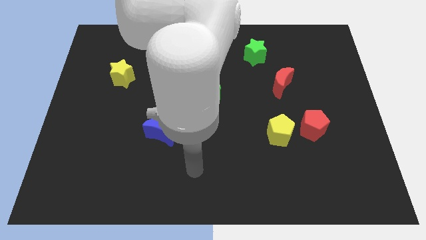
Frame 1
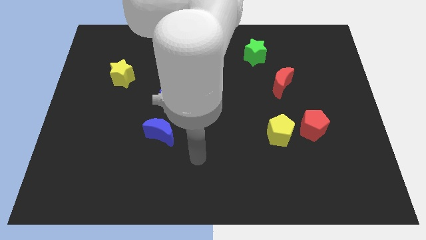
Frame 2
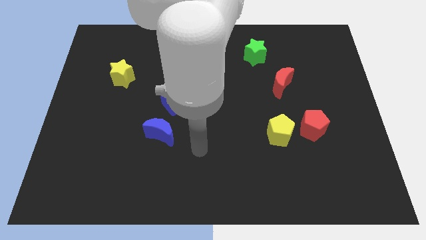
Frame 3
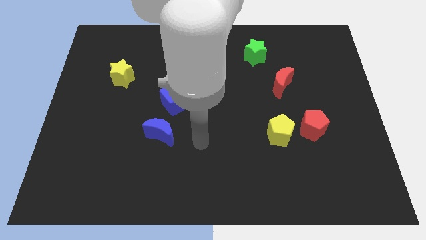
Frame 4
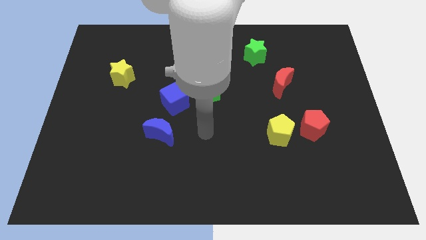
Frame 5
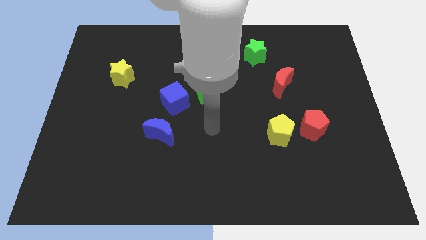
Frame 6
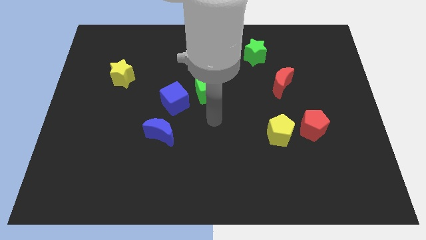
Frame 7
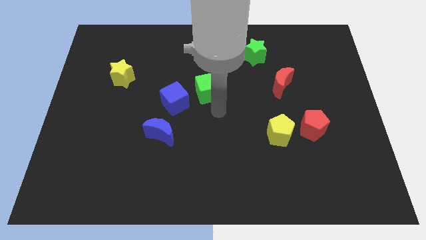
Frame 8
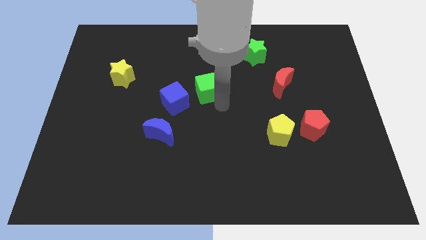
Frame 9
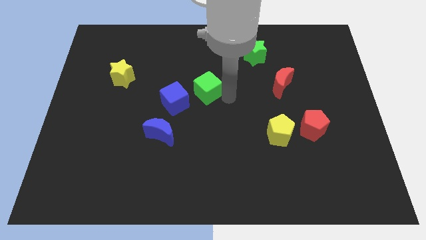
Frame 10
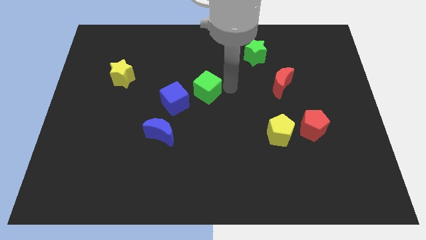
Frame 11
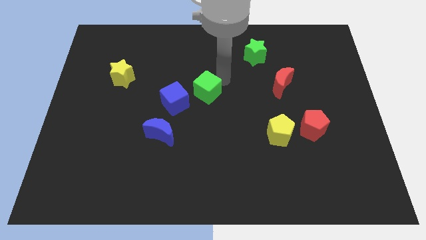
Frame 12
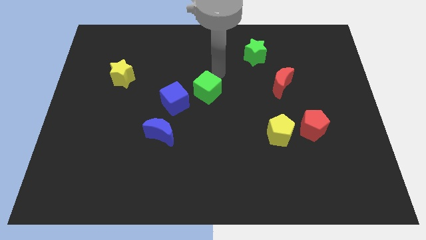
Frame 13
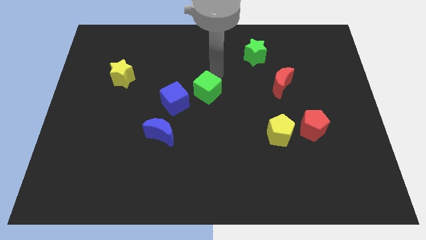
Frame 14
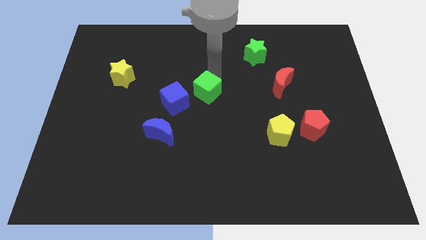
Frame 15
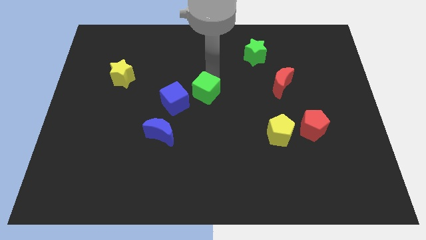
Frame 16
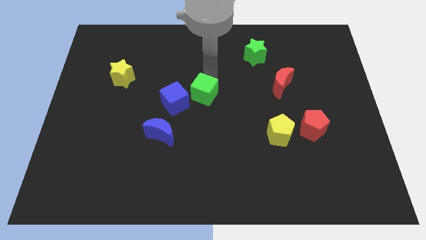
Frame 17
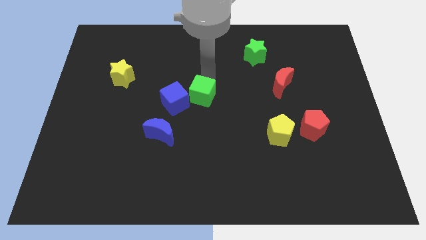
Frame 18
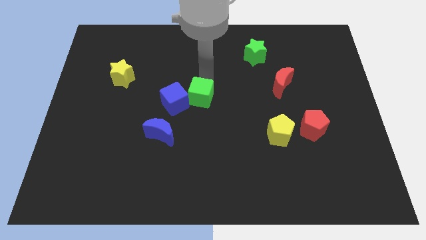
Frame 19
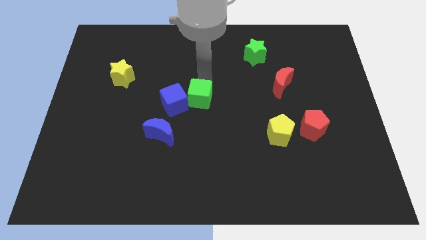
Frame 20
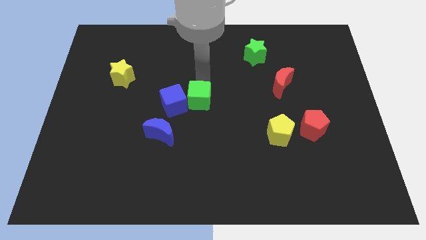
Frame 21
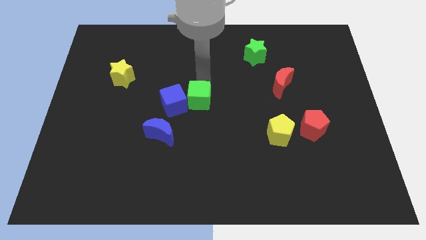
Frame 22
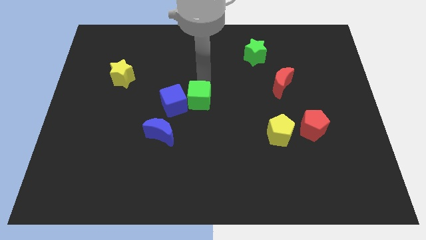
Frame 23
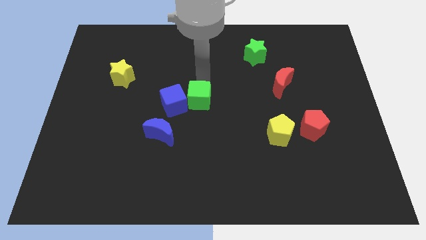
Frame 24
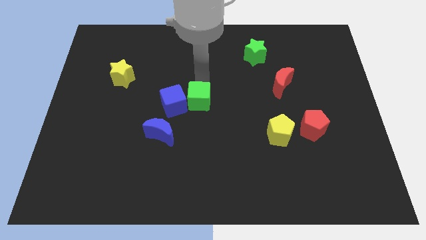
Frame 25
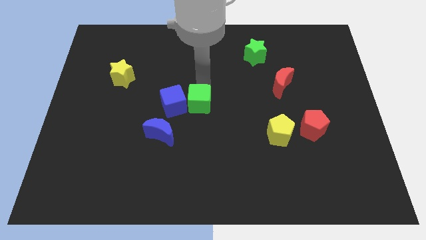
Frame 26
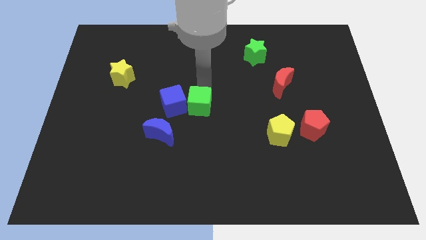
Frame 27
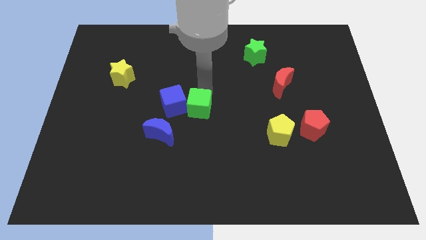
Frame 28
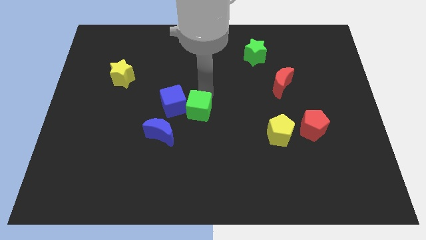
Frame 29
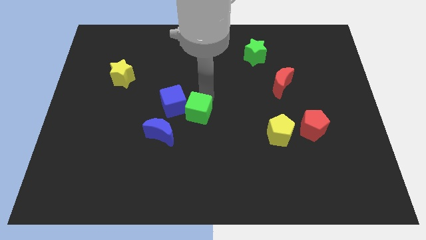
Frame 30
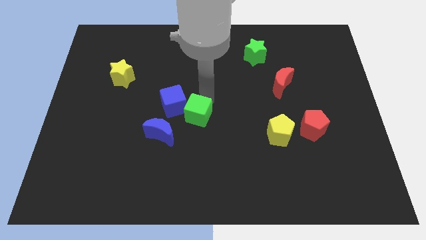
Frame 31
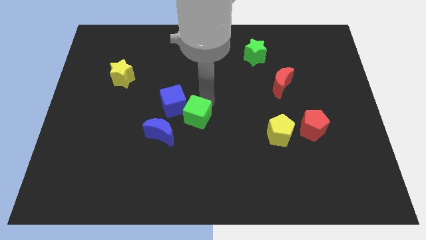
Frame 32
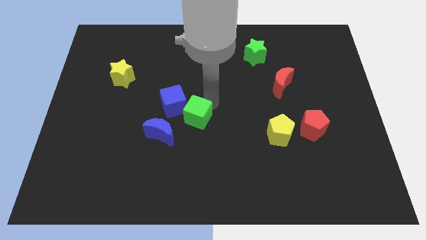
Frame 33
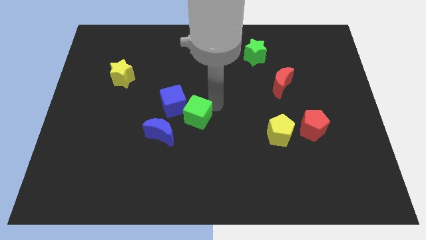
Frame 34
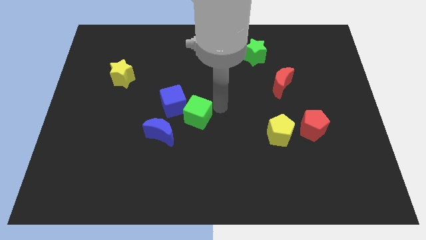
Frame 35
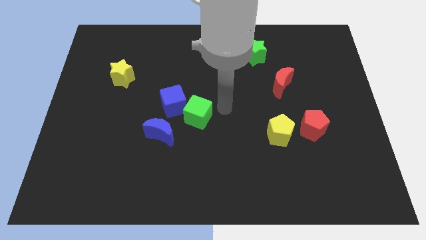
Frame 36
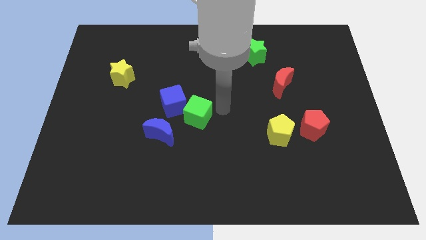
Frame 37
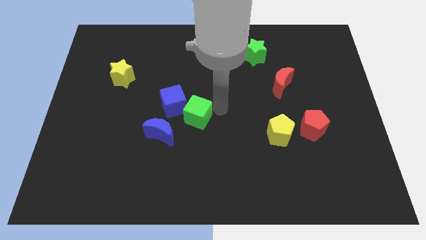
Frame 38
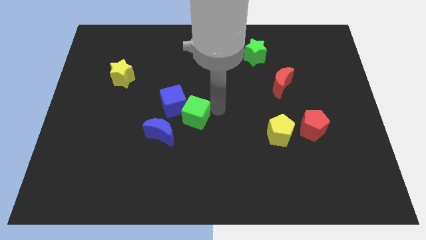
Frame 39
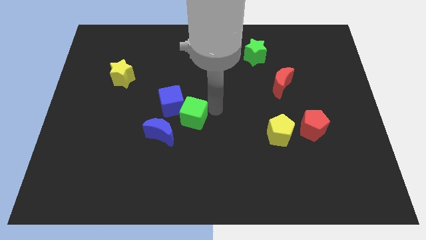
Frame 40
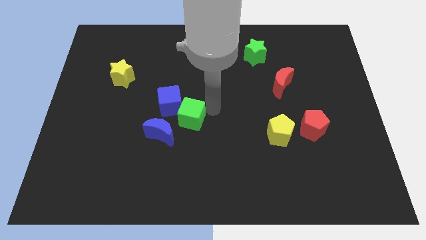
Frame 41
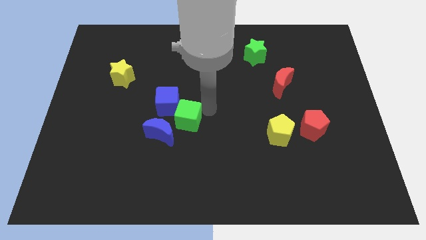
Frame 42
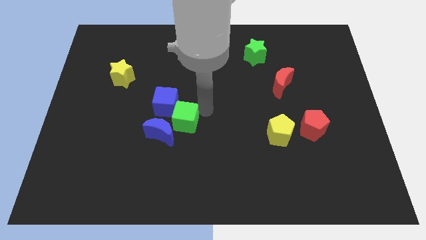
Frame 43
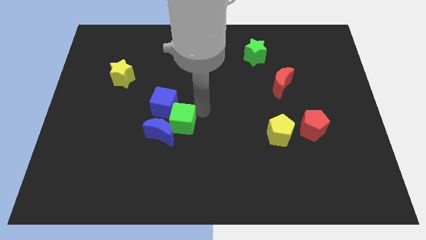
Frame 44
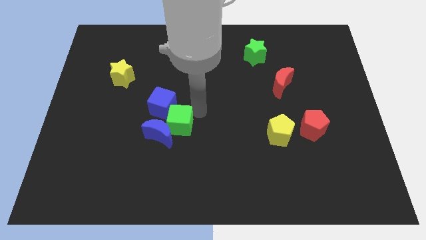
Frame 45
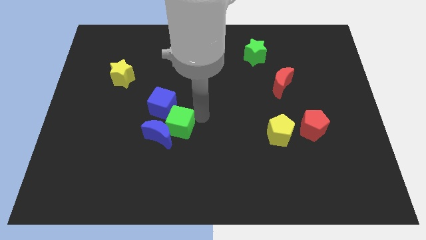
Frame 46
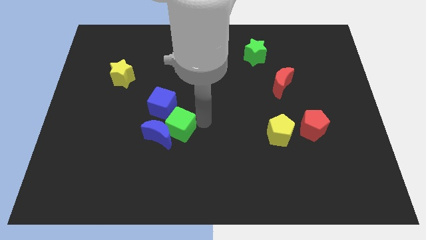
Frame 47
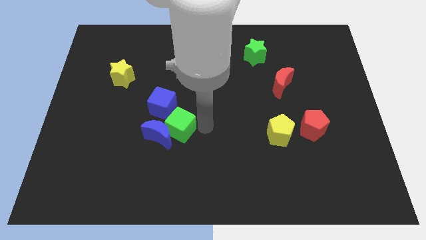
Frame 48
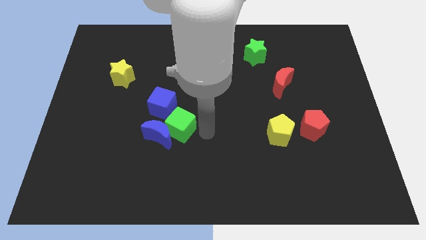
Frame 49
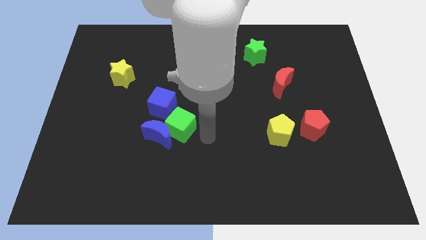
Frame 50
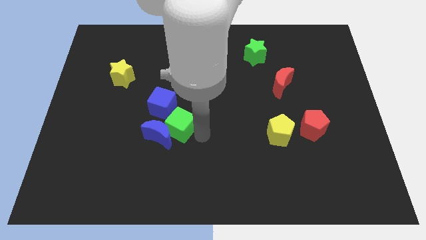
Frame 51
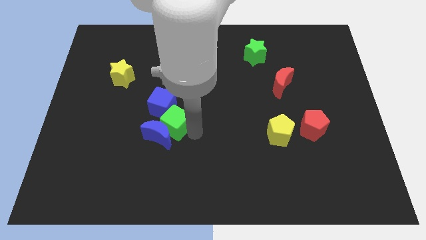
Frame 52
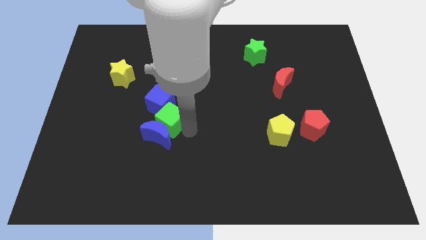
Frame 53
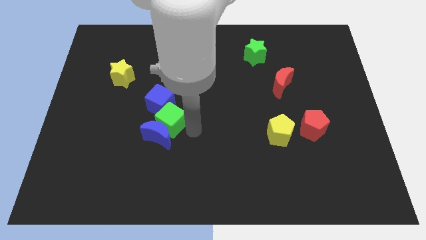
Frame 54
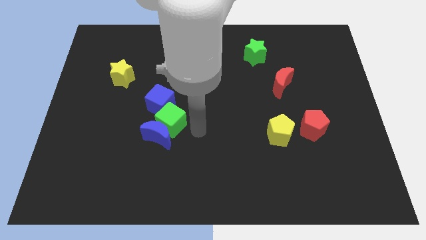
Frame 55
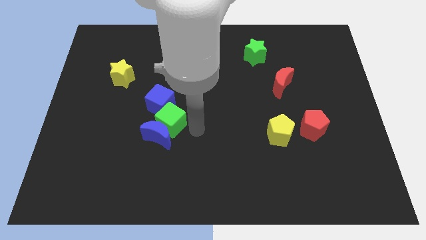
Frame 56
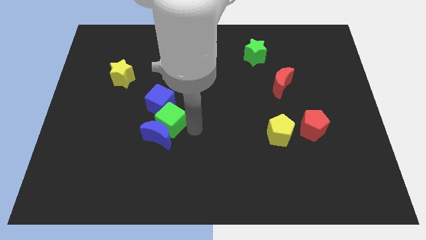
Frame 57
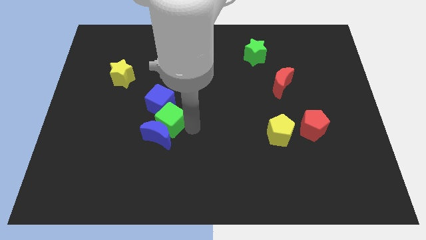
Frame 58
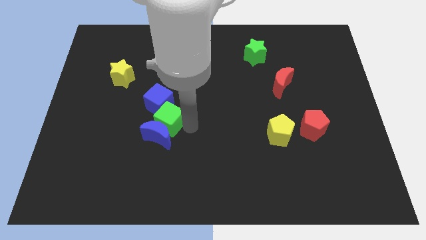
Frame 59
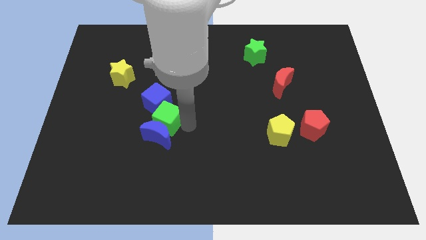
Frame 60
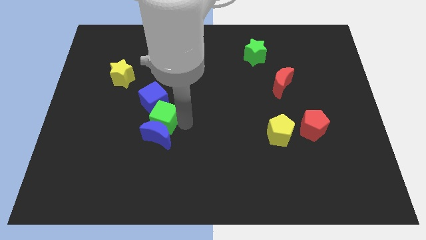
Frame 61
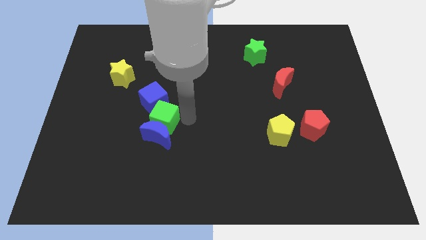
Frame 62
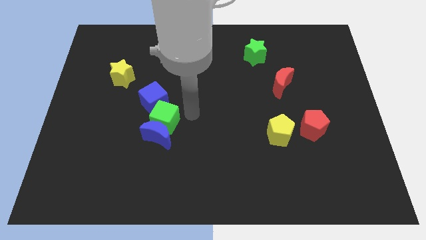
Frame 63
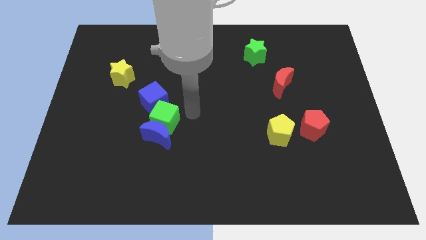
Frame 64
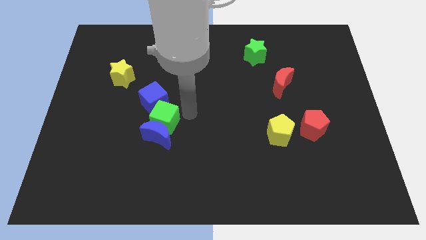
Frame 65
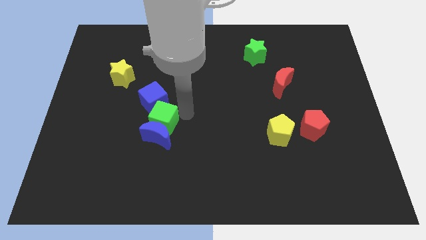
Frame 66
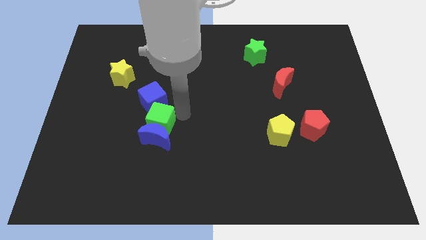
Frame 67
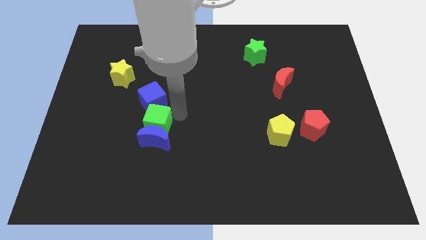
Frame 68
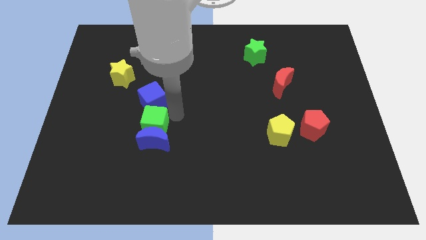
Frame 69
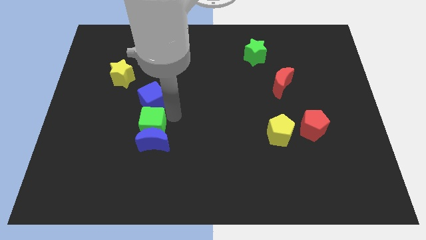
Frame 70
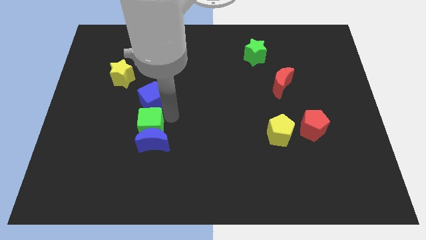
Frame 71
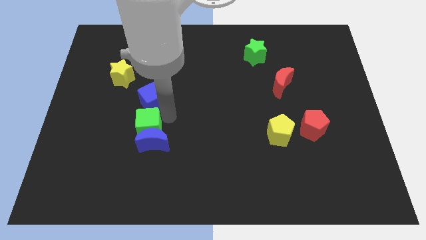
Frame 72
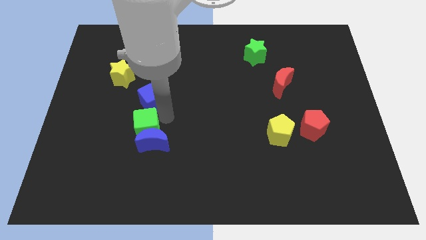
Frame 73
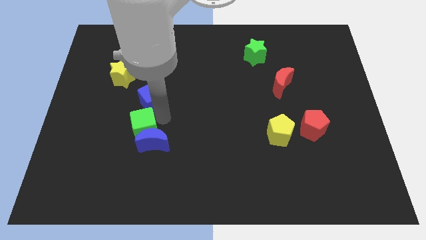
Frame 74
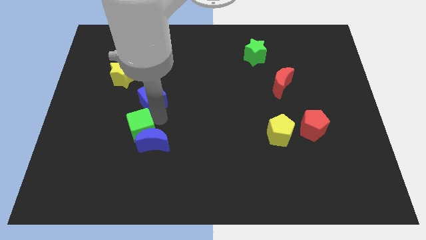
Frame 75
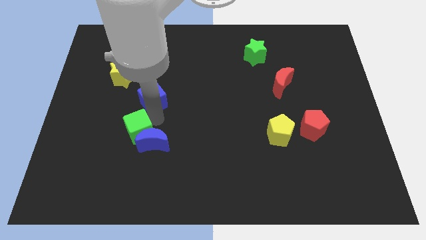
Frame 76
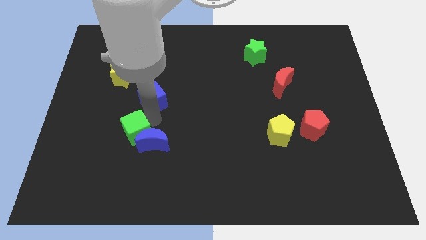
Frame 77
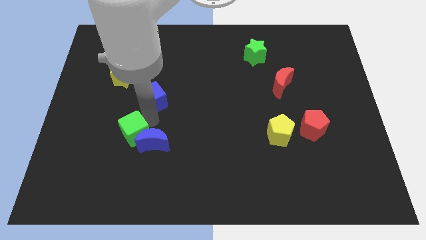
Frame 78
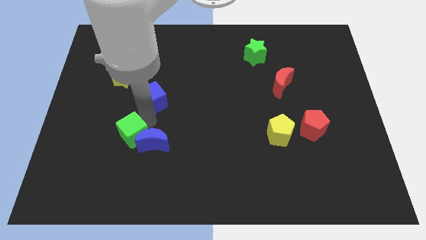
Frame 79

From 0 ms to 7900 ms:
push the green cube down and to the left
